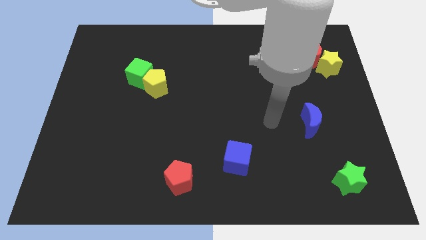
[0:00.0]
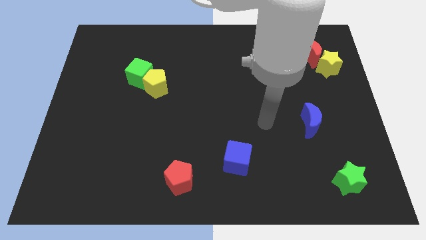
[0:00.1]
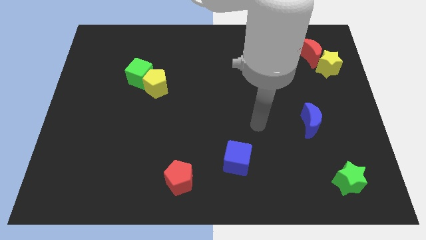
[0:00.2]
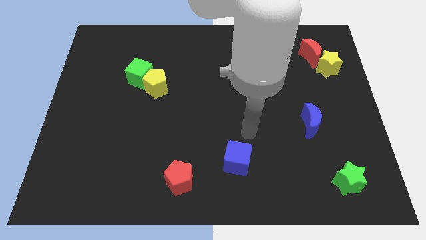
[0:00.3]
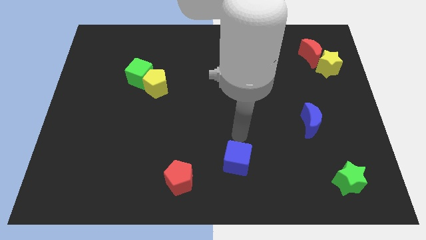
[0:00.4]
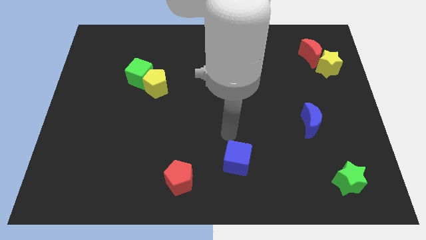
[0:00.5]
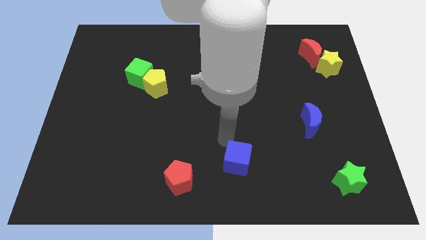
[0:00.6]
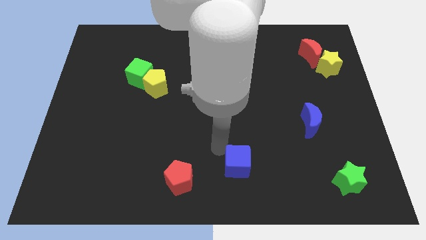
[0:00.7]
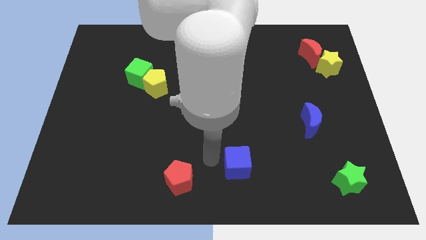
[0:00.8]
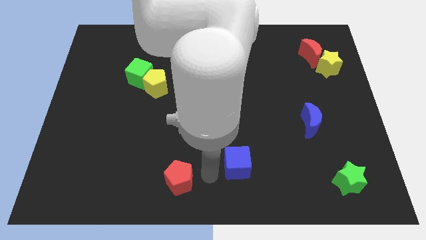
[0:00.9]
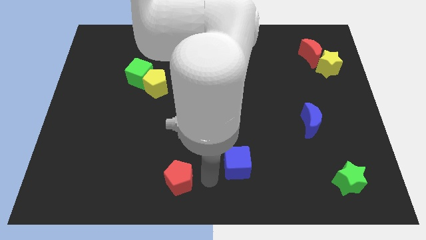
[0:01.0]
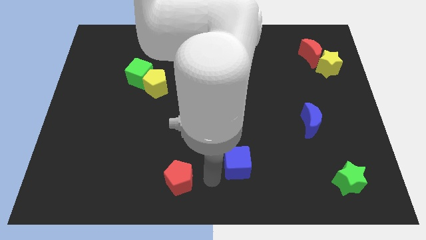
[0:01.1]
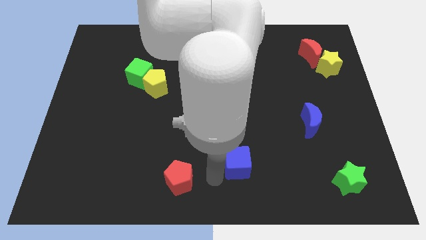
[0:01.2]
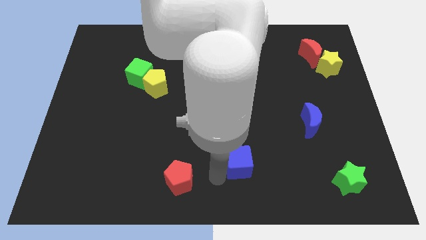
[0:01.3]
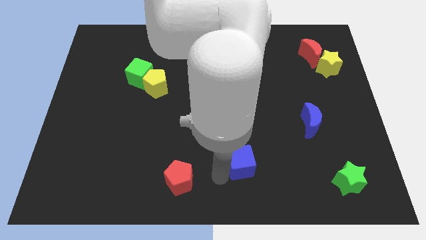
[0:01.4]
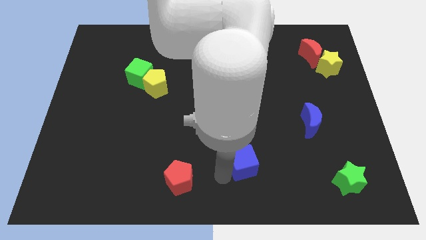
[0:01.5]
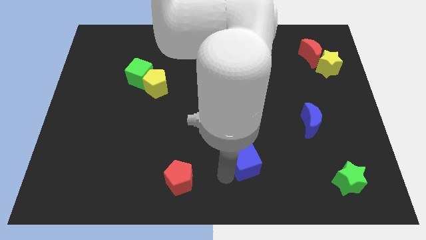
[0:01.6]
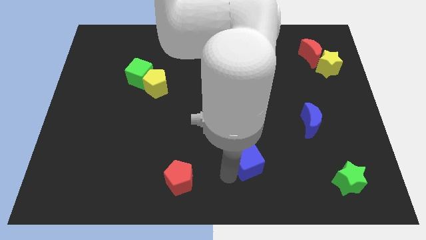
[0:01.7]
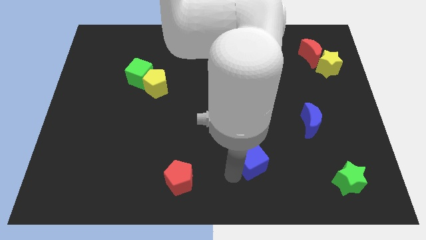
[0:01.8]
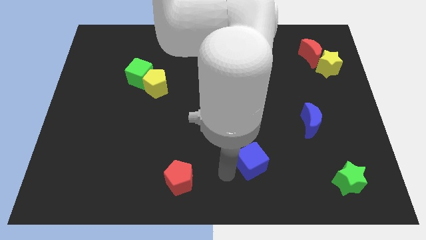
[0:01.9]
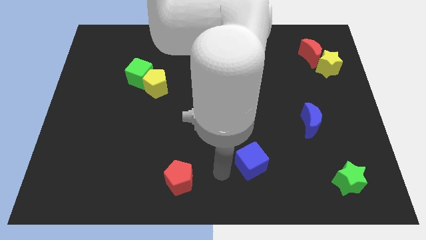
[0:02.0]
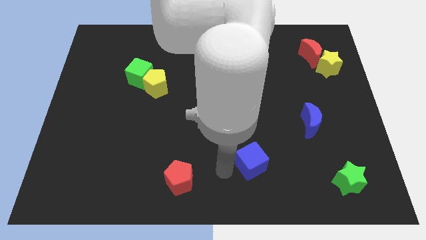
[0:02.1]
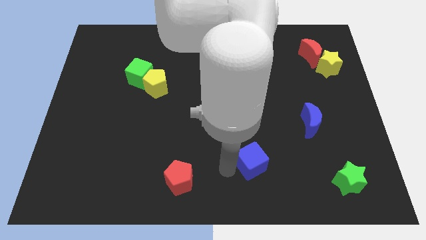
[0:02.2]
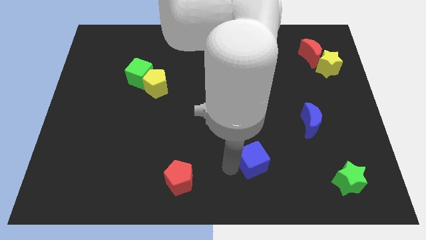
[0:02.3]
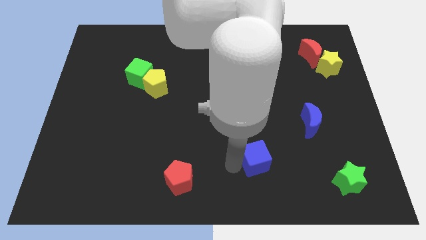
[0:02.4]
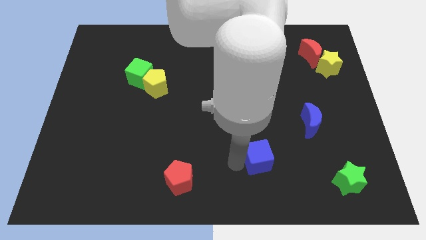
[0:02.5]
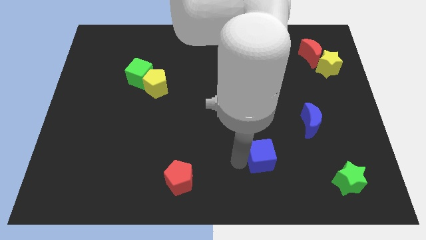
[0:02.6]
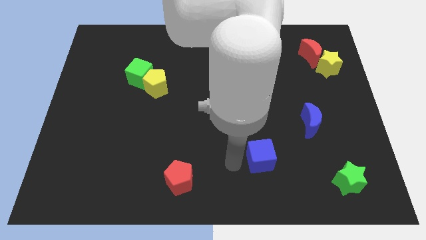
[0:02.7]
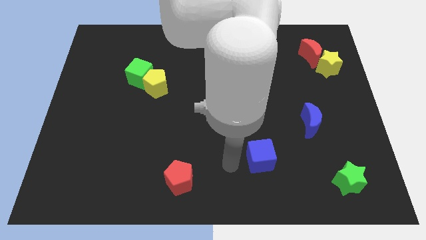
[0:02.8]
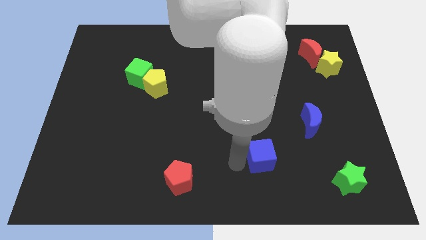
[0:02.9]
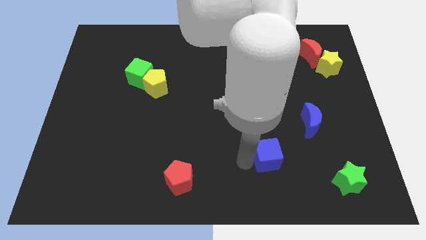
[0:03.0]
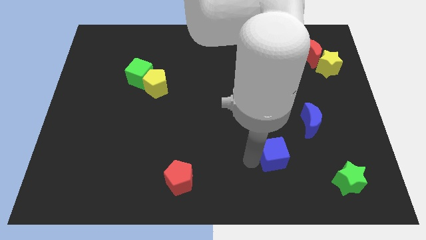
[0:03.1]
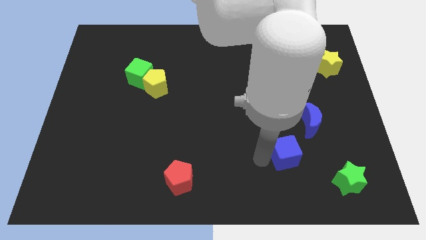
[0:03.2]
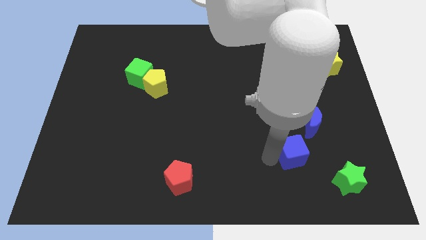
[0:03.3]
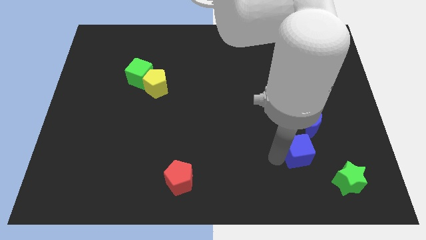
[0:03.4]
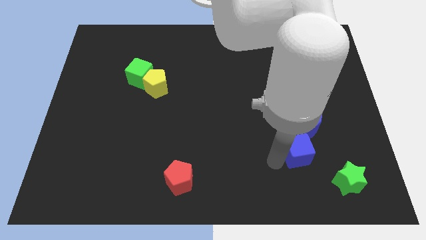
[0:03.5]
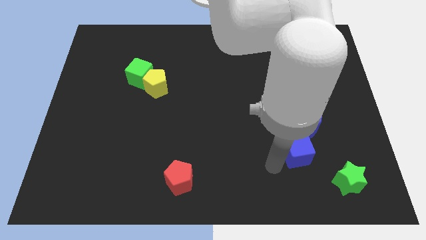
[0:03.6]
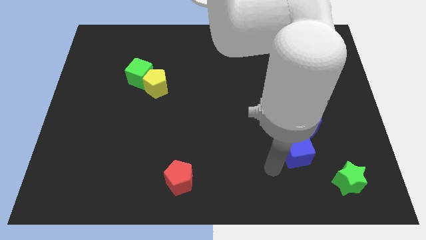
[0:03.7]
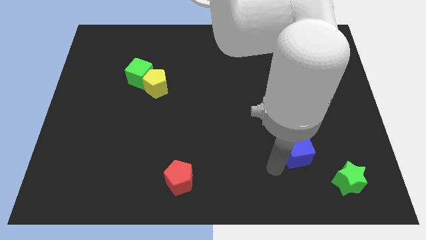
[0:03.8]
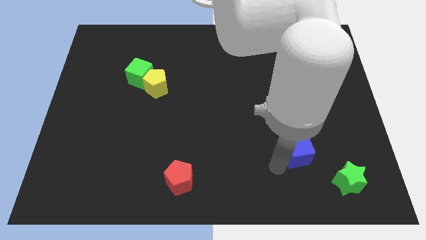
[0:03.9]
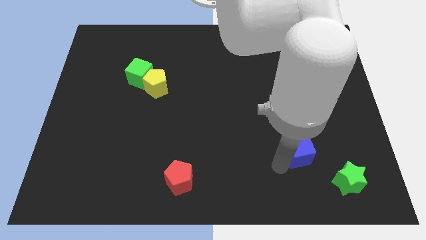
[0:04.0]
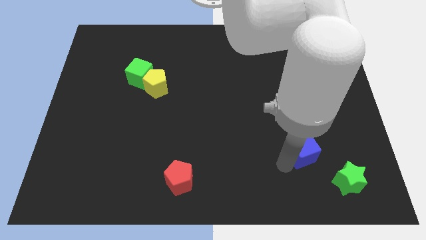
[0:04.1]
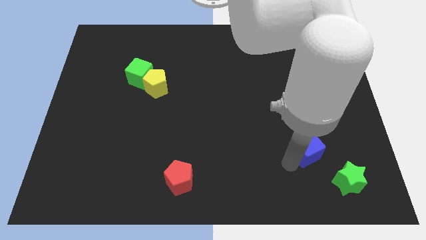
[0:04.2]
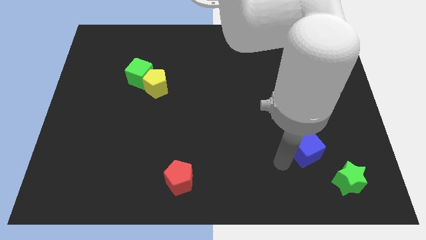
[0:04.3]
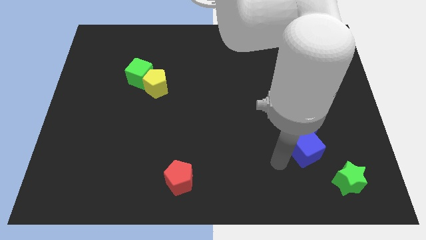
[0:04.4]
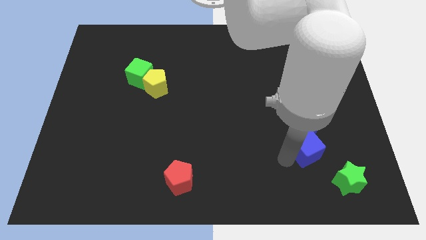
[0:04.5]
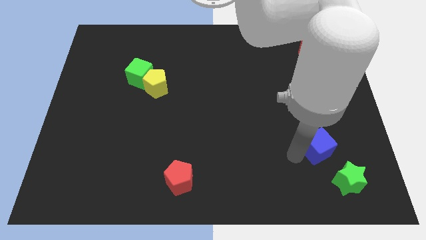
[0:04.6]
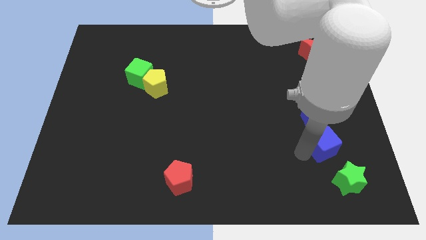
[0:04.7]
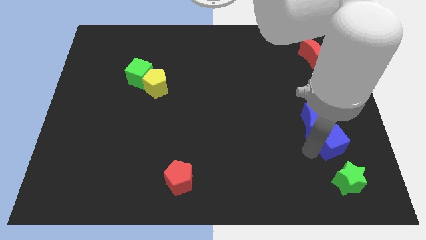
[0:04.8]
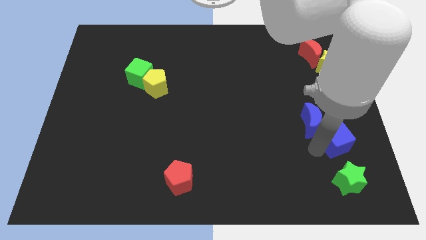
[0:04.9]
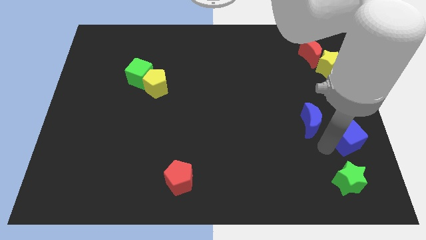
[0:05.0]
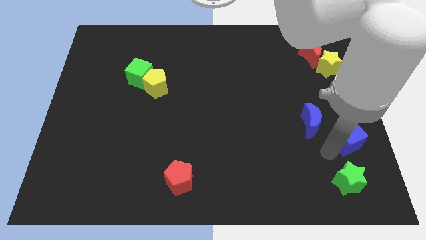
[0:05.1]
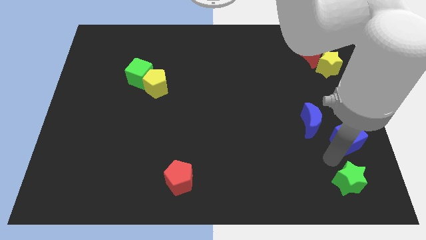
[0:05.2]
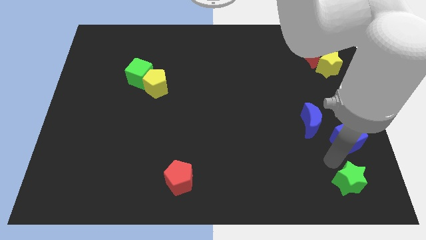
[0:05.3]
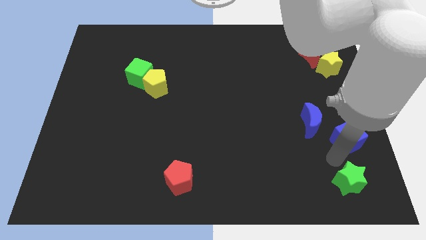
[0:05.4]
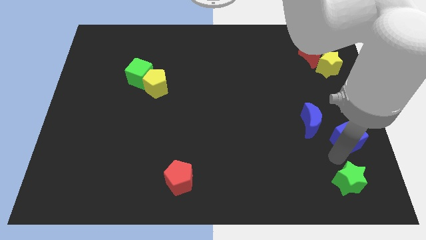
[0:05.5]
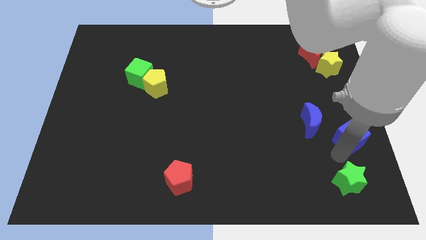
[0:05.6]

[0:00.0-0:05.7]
move the blue cube to the right side
